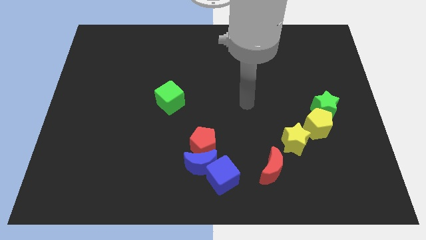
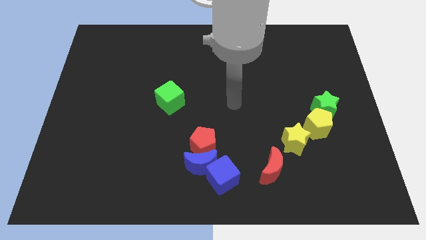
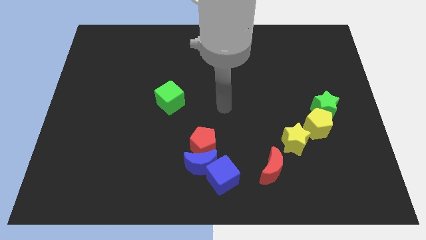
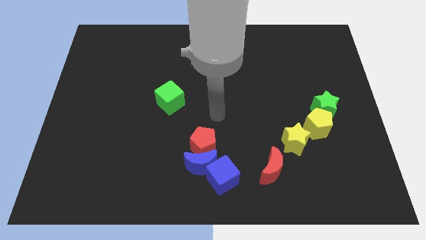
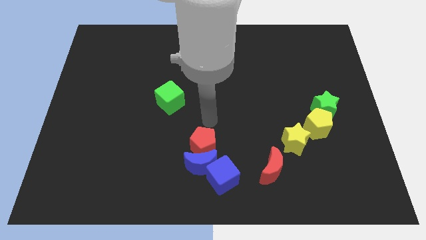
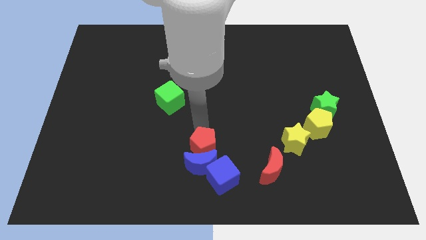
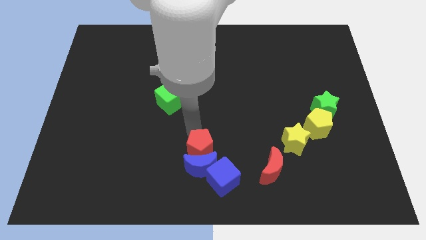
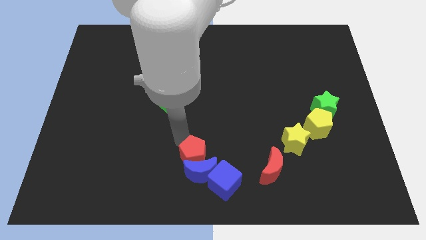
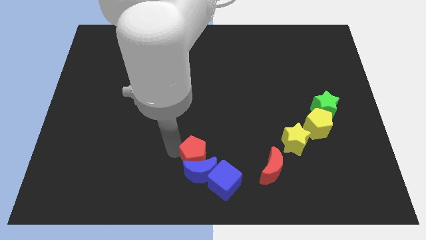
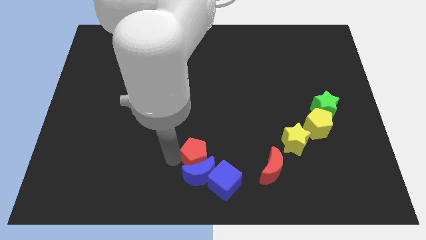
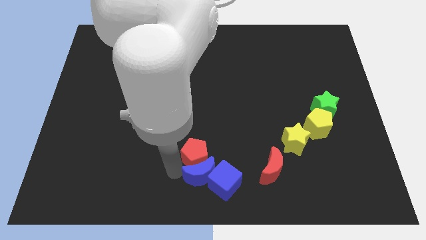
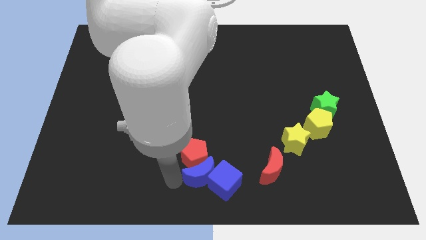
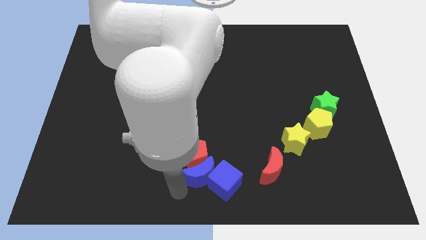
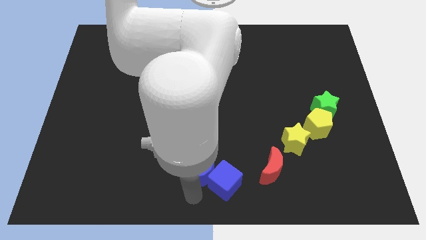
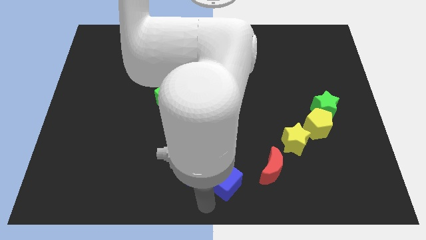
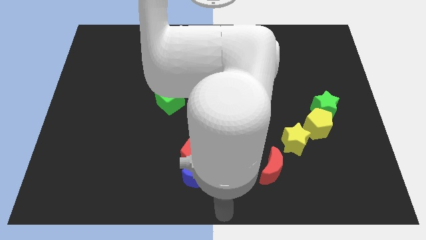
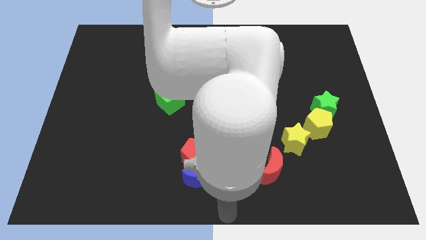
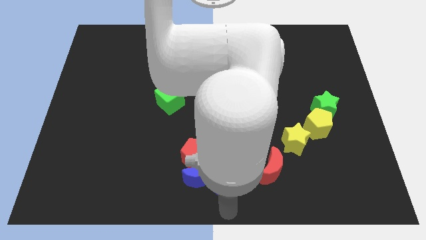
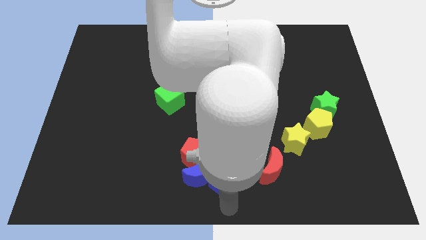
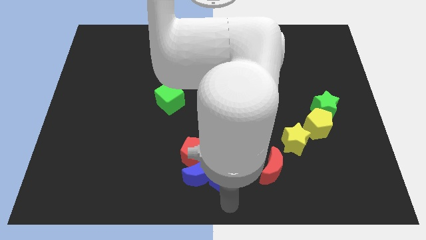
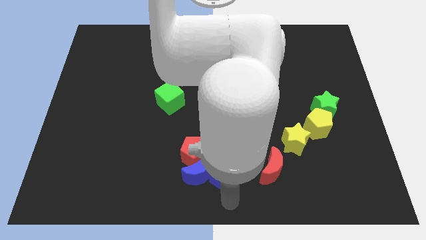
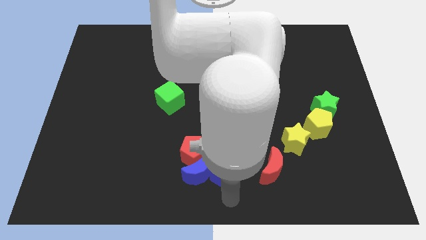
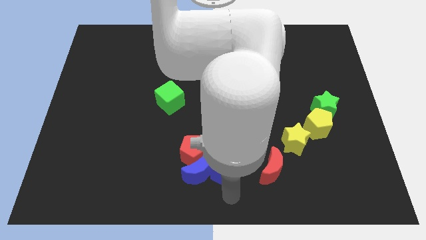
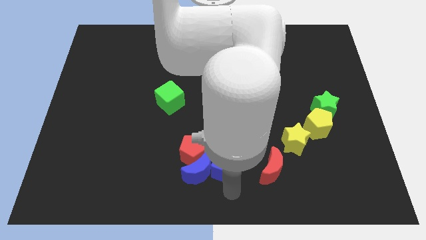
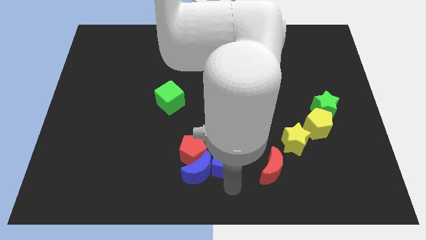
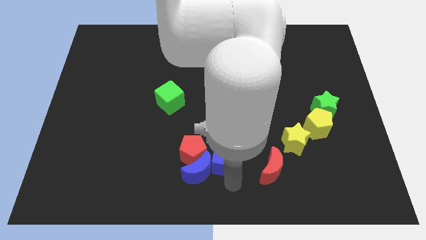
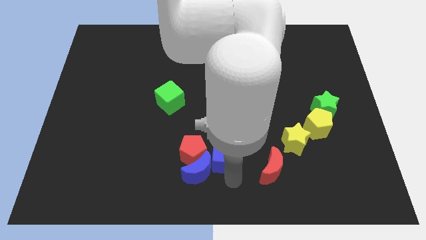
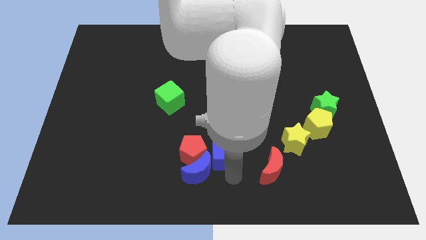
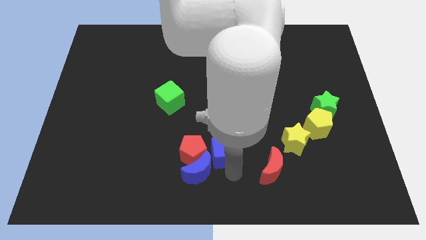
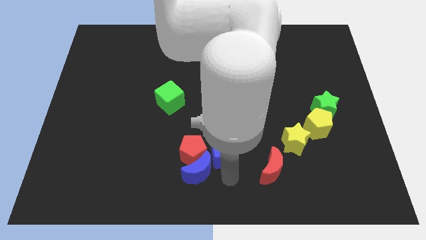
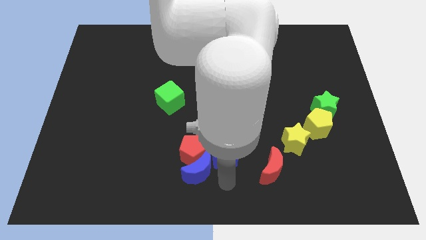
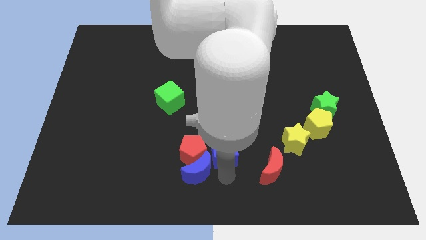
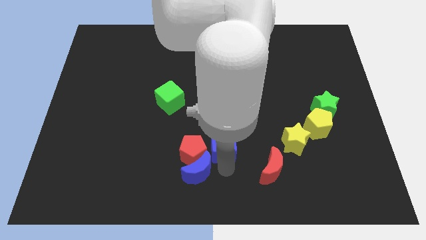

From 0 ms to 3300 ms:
push the blue cube up slightly

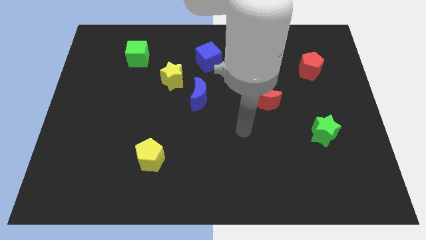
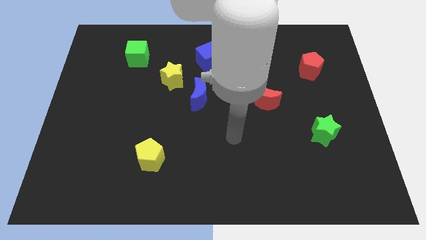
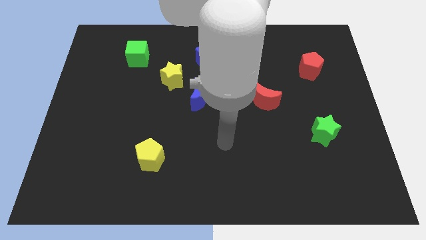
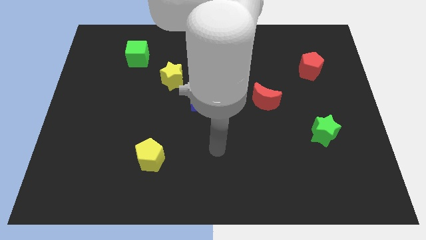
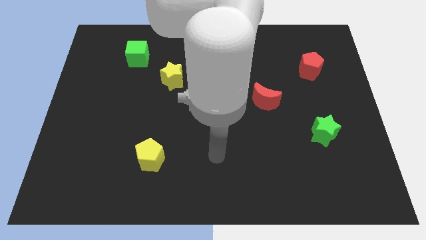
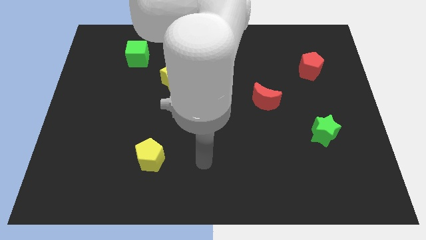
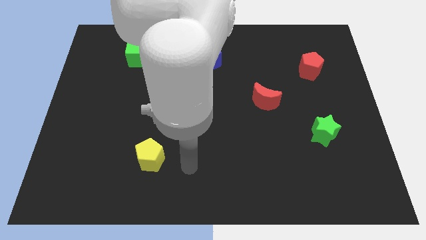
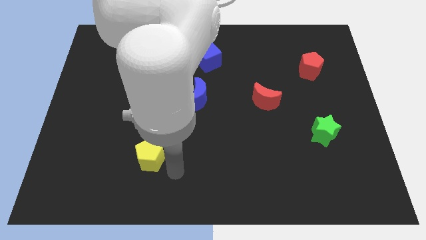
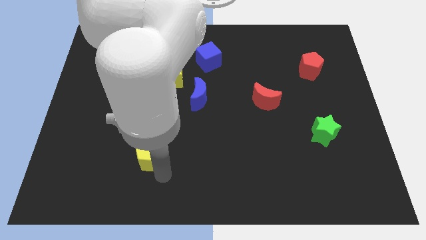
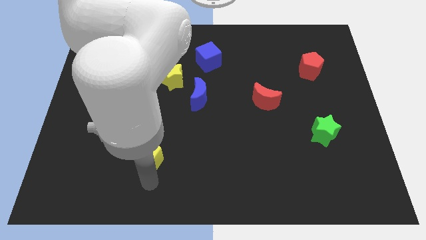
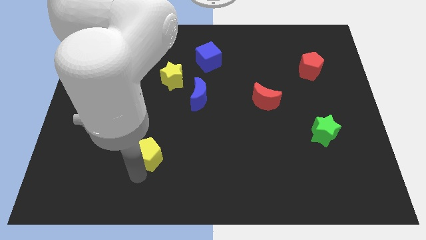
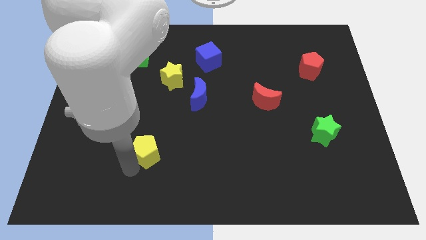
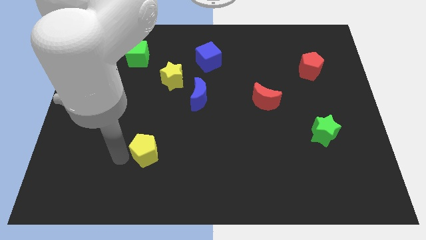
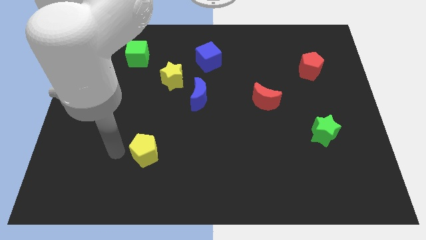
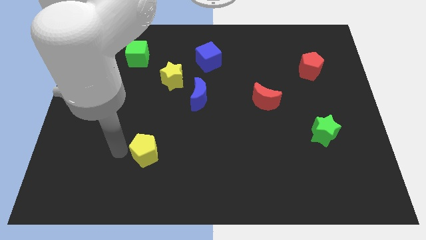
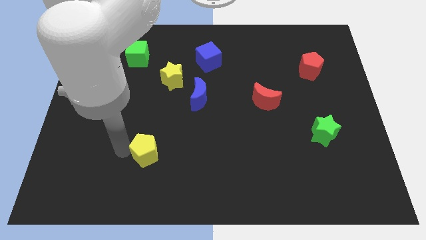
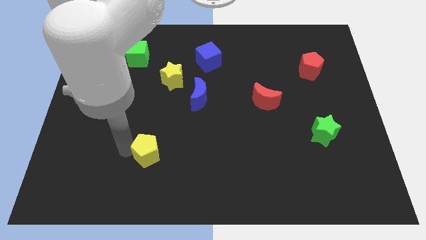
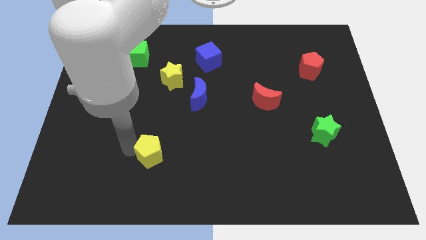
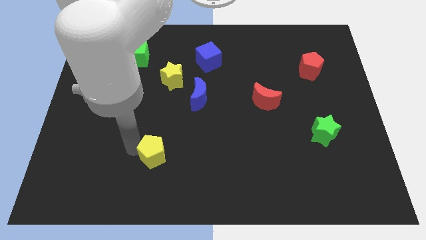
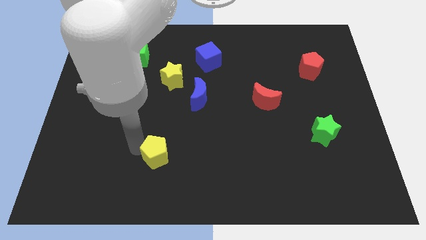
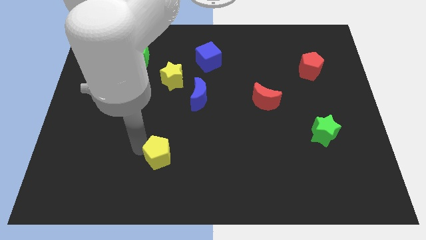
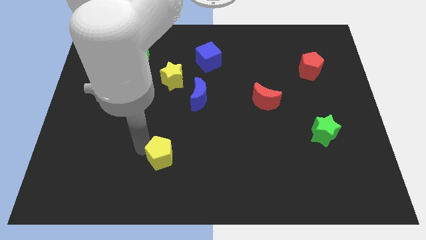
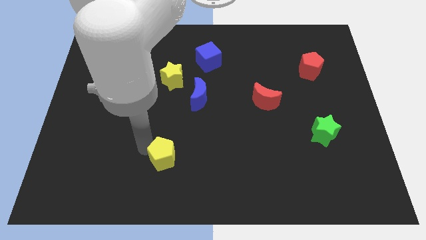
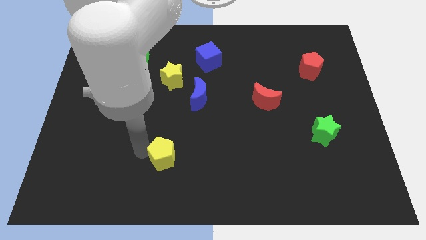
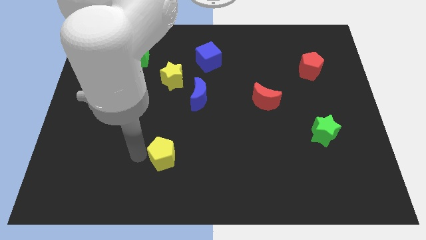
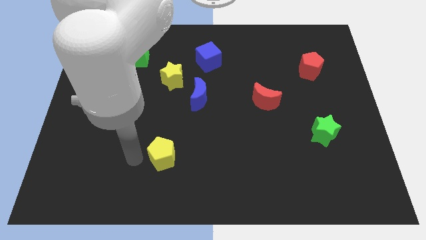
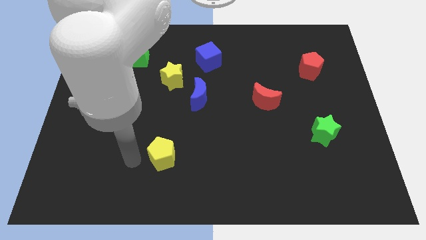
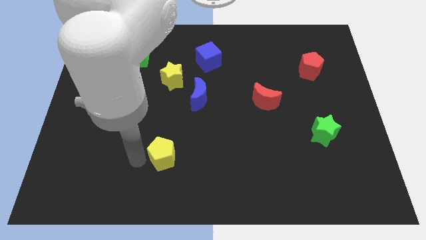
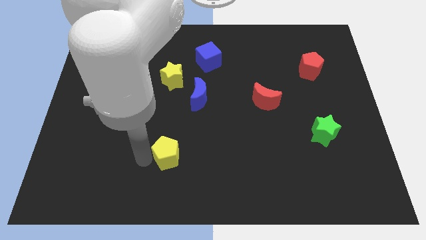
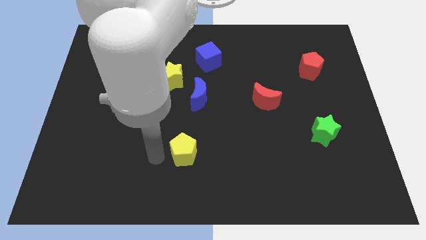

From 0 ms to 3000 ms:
slide the yellow pentagon right a little

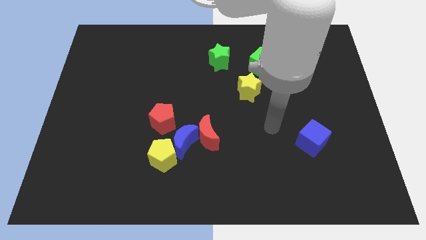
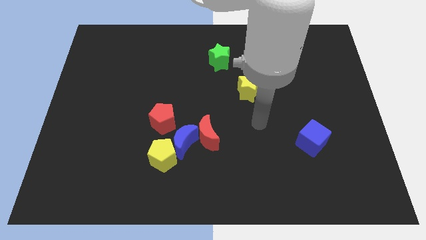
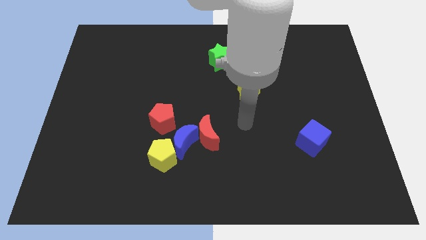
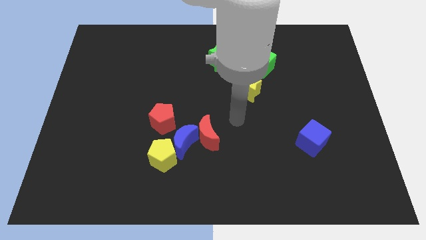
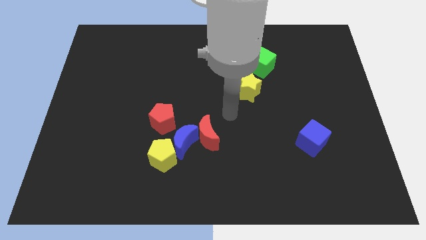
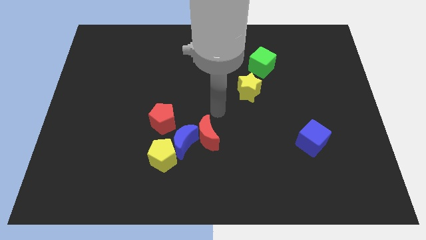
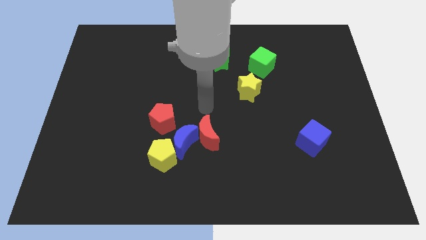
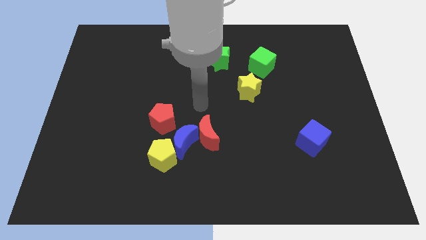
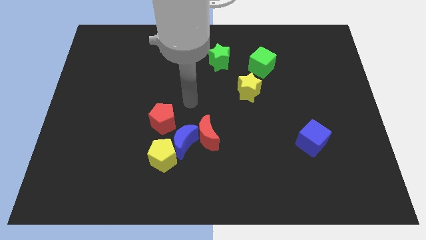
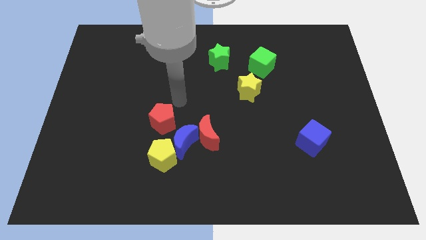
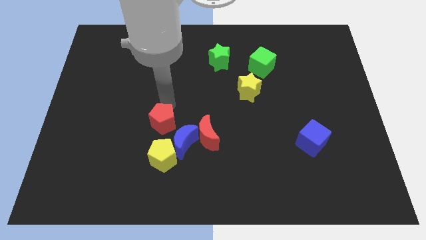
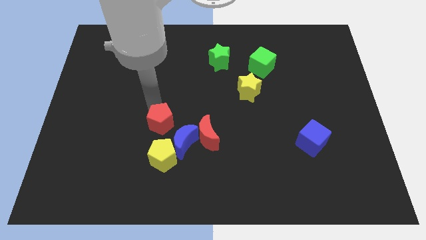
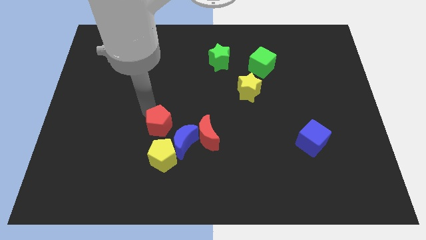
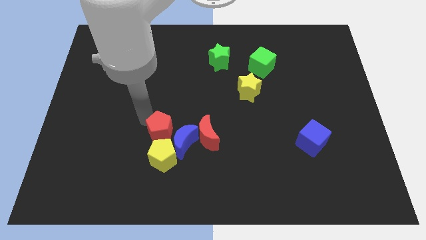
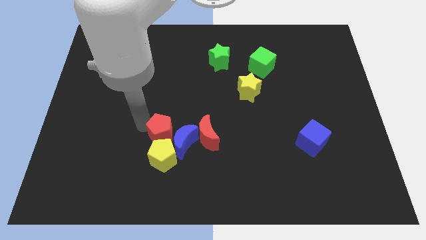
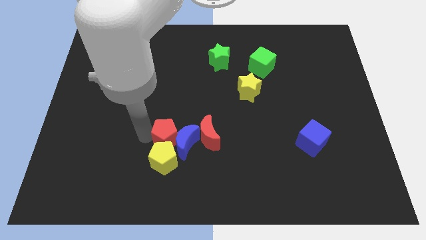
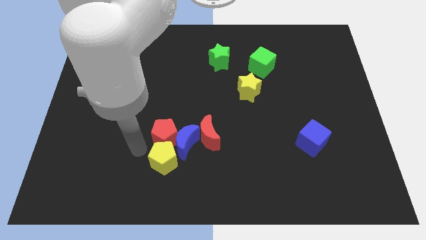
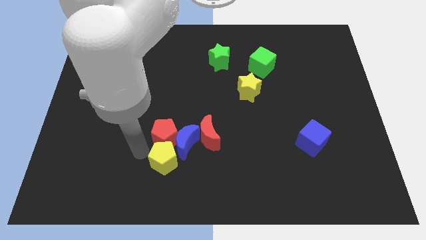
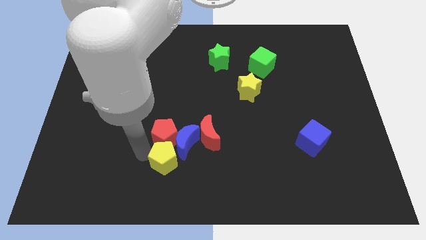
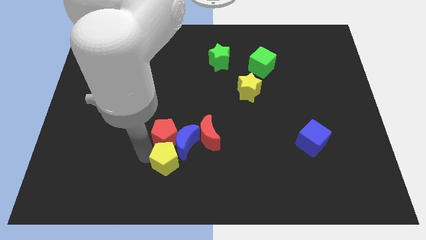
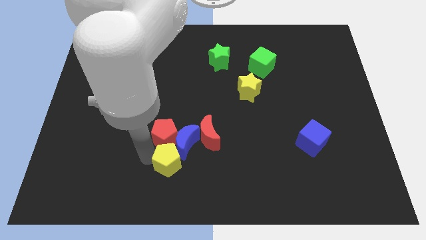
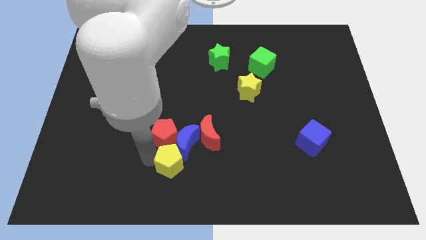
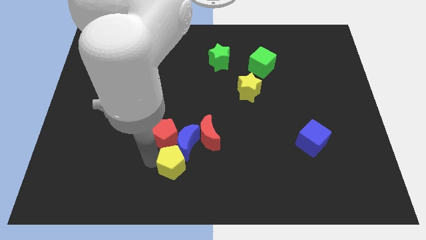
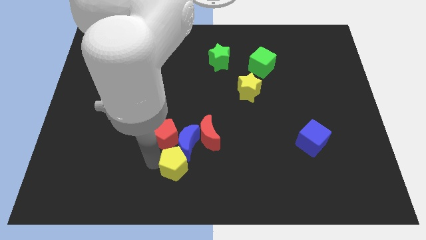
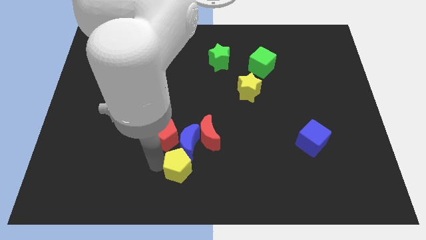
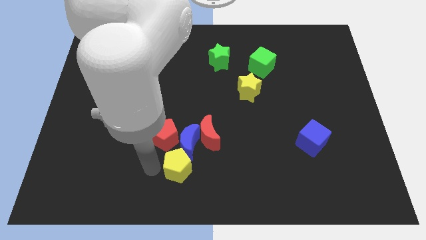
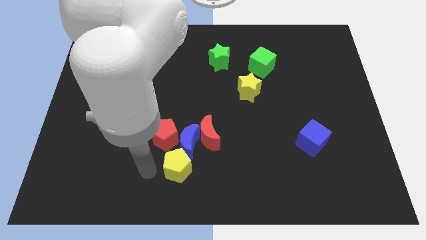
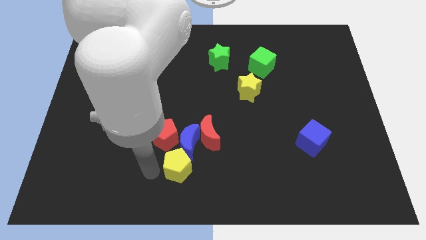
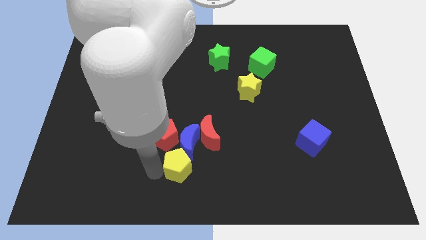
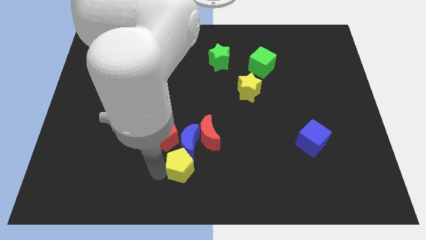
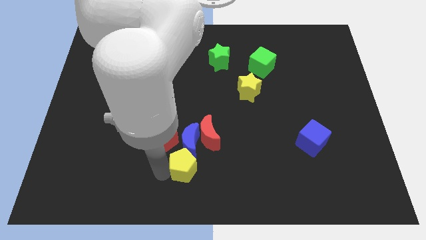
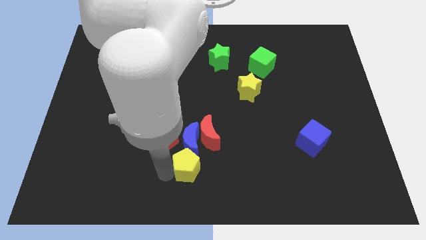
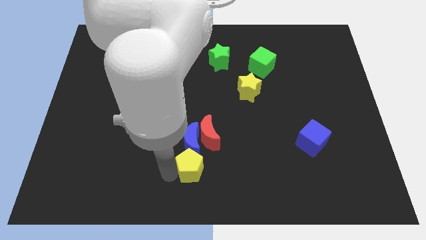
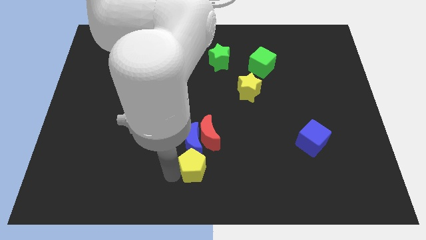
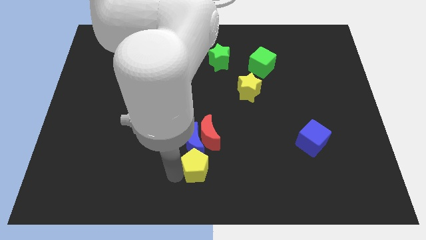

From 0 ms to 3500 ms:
slightly move the yellow pentagon right
